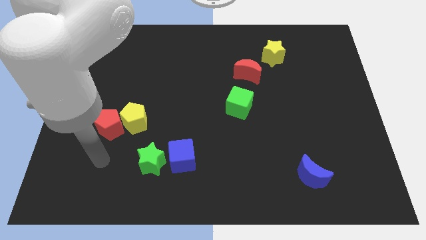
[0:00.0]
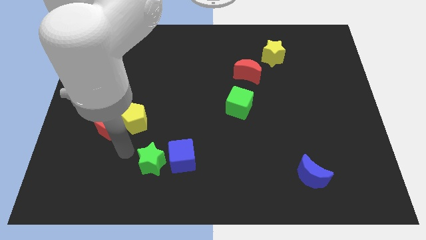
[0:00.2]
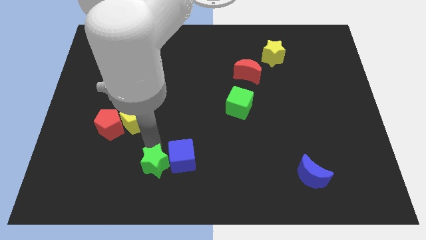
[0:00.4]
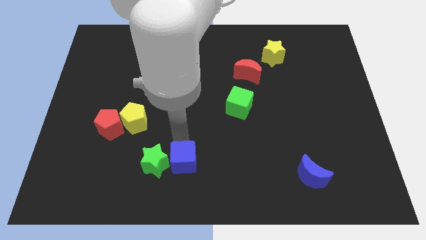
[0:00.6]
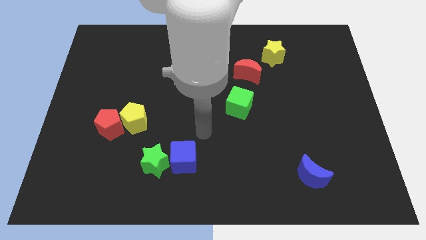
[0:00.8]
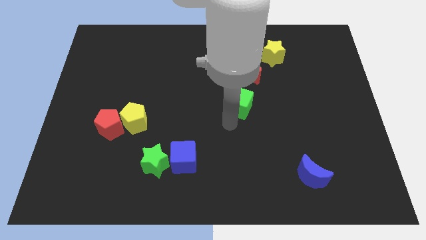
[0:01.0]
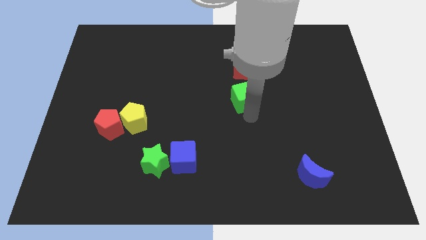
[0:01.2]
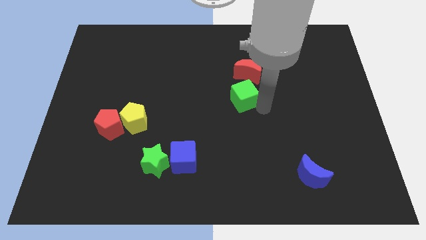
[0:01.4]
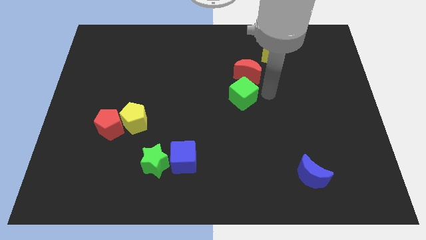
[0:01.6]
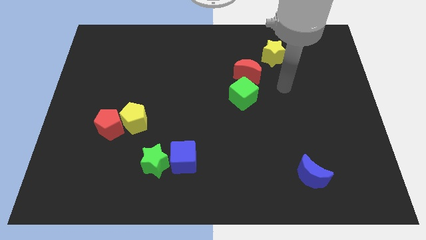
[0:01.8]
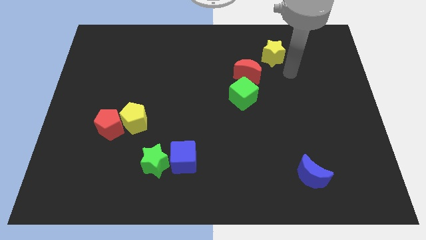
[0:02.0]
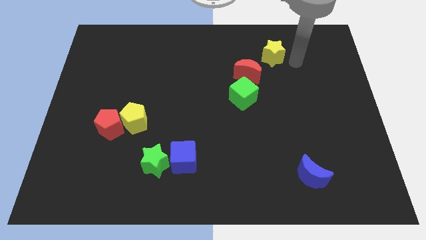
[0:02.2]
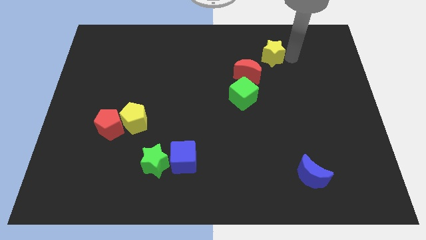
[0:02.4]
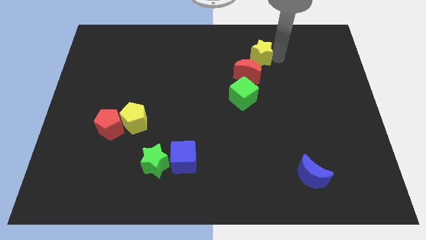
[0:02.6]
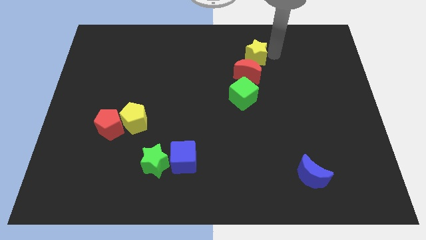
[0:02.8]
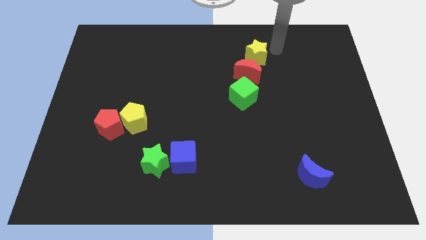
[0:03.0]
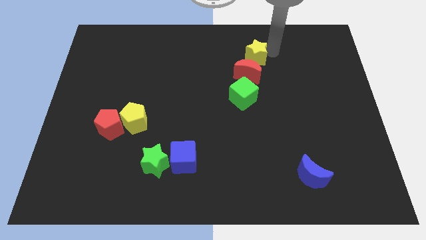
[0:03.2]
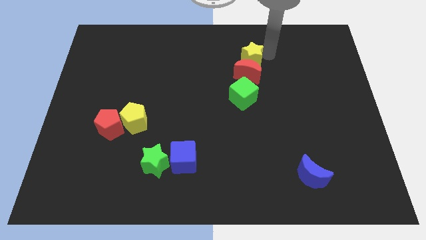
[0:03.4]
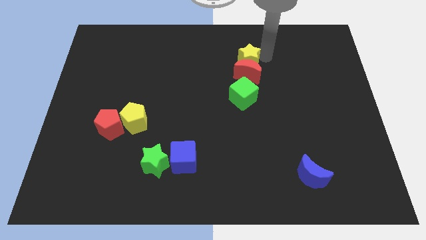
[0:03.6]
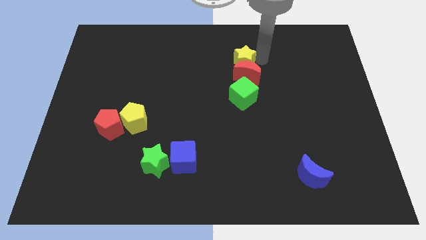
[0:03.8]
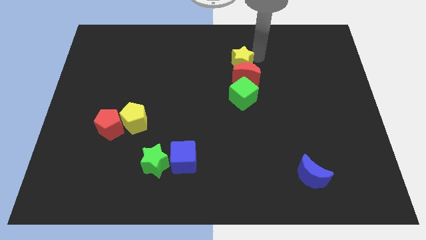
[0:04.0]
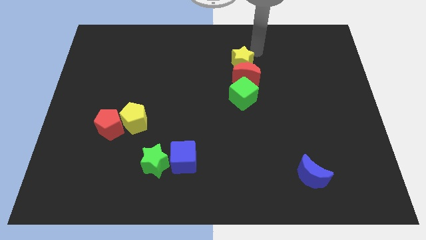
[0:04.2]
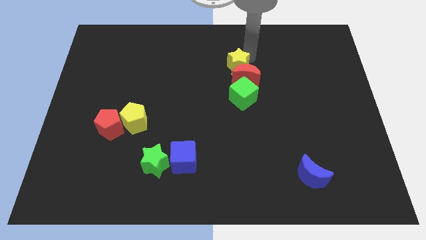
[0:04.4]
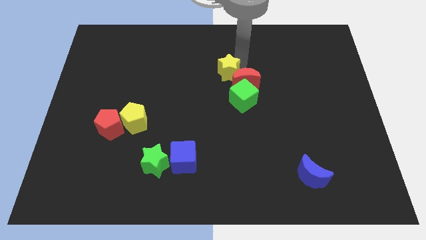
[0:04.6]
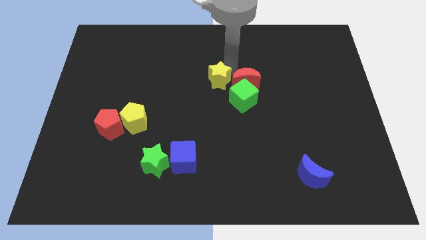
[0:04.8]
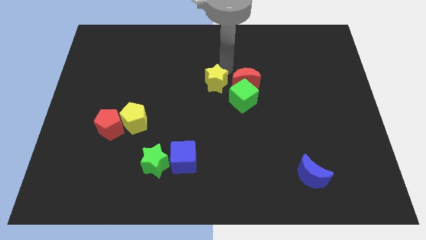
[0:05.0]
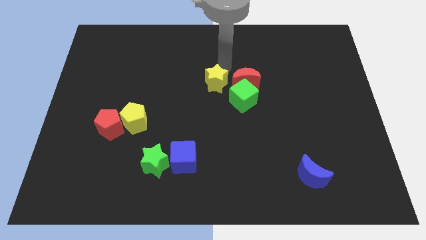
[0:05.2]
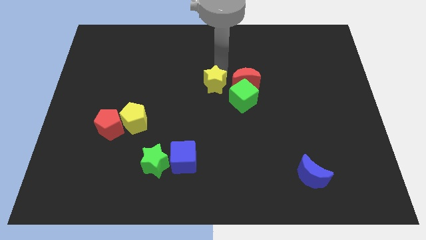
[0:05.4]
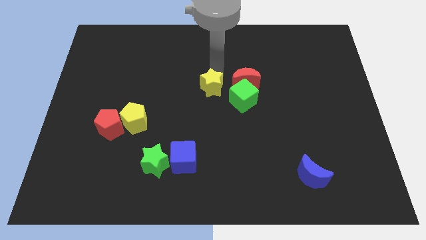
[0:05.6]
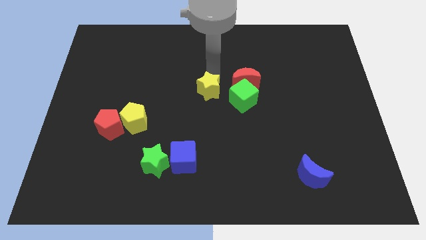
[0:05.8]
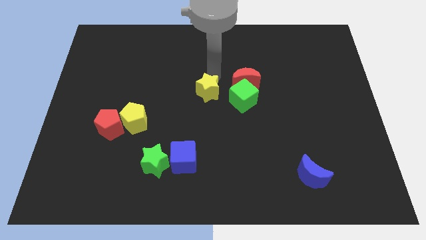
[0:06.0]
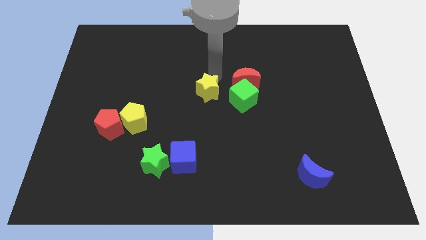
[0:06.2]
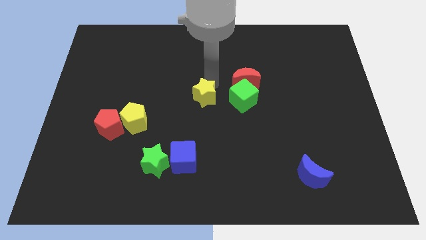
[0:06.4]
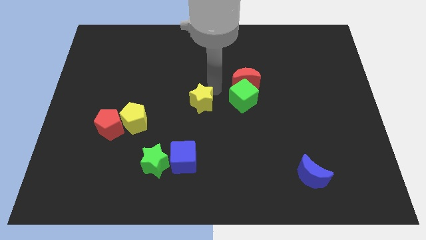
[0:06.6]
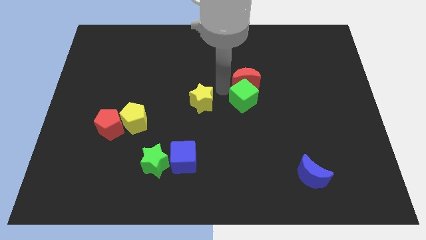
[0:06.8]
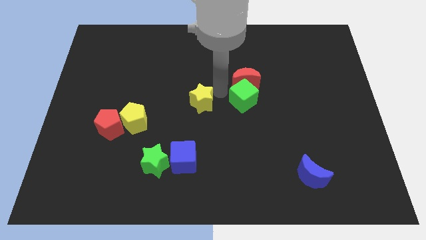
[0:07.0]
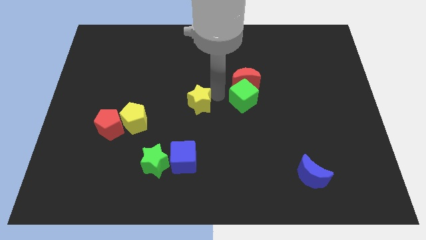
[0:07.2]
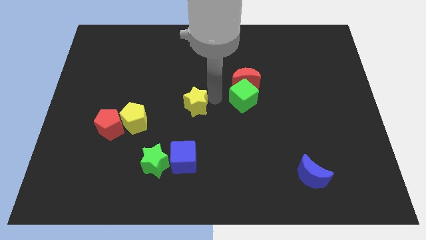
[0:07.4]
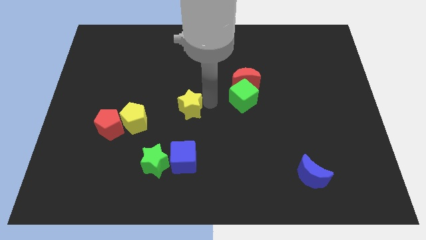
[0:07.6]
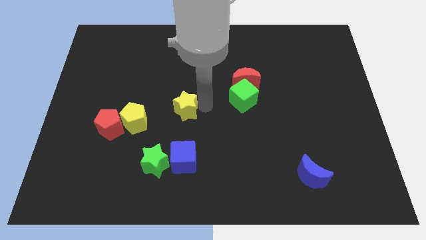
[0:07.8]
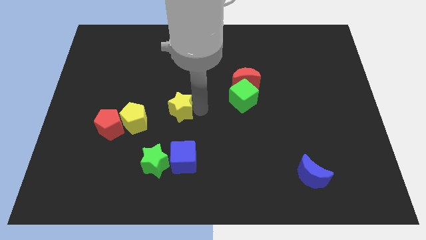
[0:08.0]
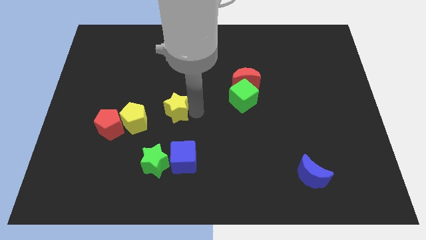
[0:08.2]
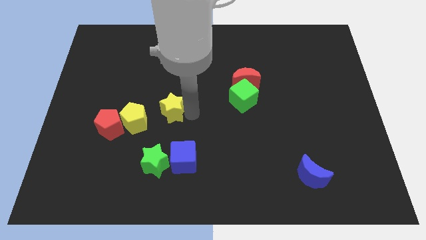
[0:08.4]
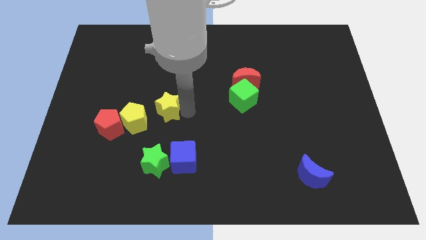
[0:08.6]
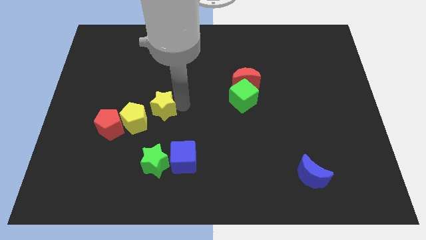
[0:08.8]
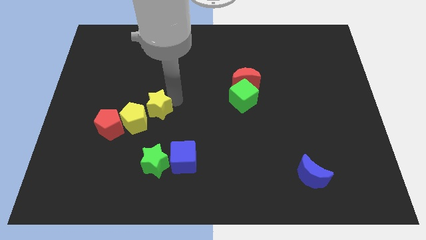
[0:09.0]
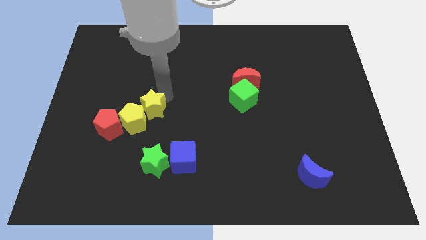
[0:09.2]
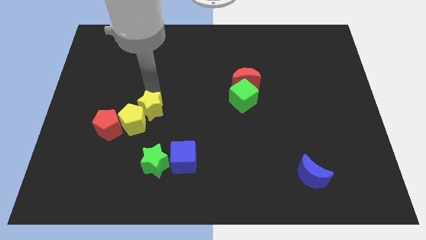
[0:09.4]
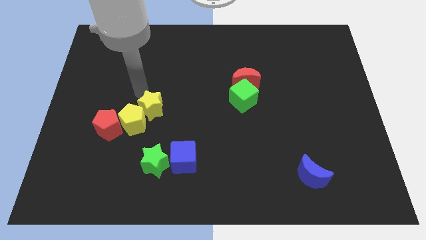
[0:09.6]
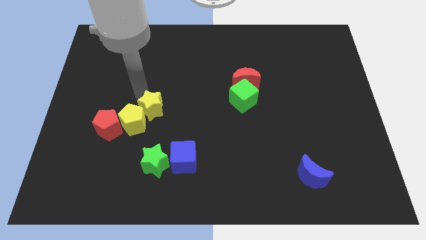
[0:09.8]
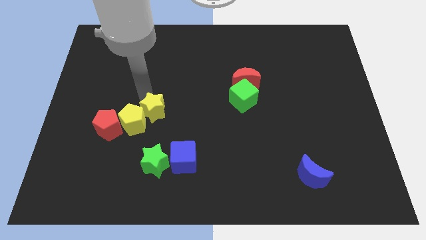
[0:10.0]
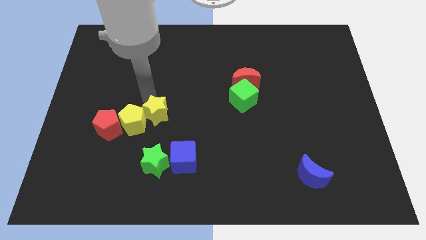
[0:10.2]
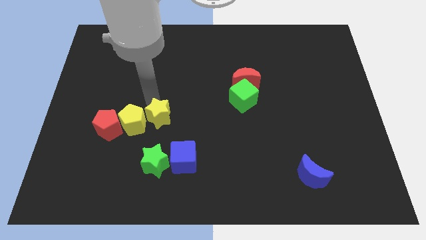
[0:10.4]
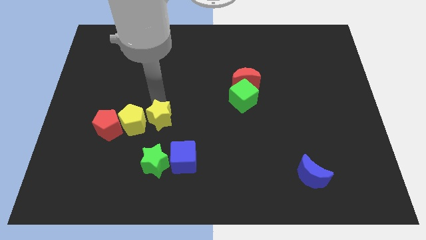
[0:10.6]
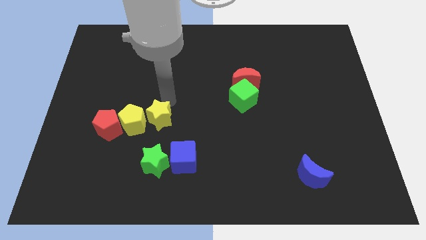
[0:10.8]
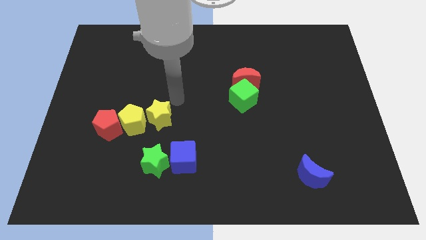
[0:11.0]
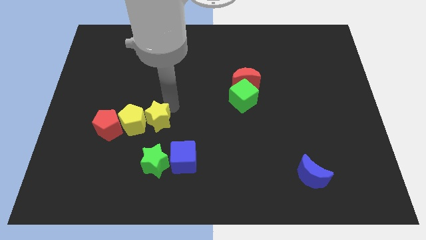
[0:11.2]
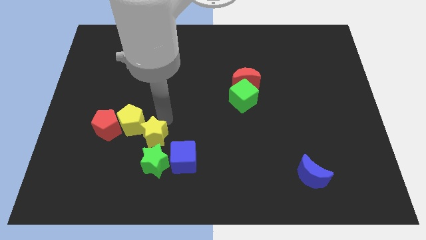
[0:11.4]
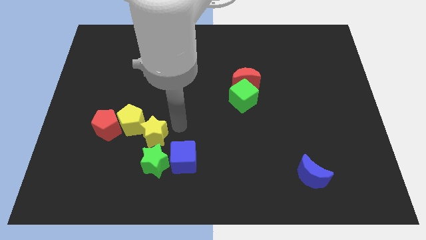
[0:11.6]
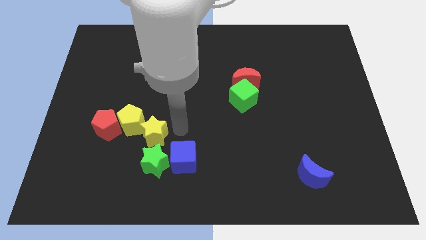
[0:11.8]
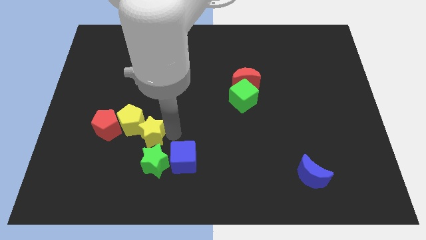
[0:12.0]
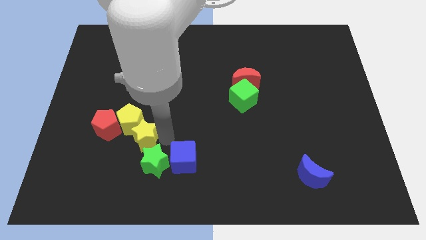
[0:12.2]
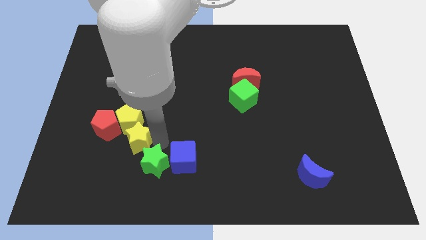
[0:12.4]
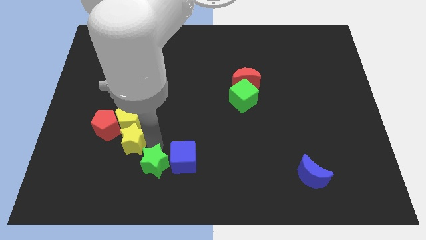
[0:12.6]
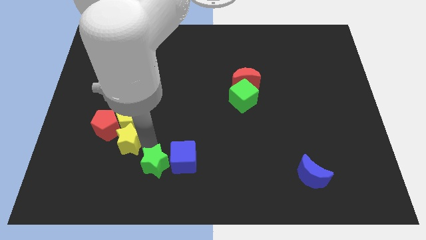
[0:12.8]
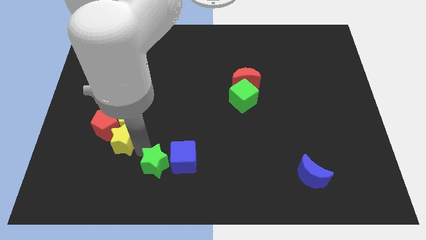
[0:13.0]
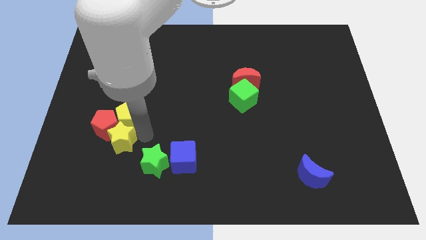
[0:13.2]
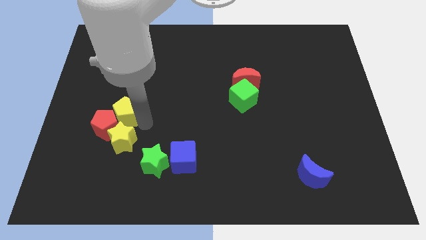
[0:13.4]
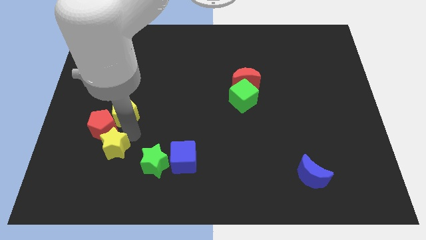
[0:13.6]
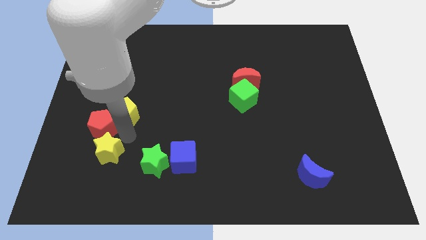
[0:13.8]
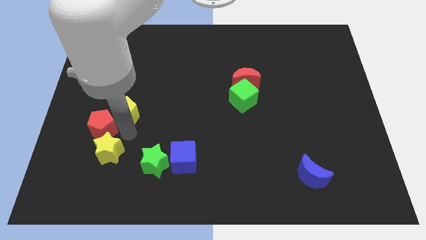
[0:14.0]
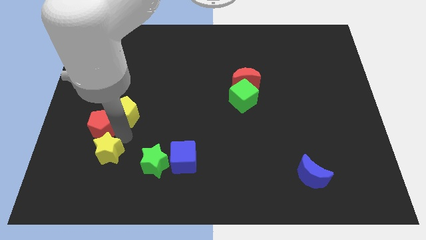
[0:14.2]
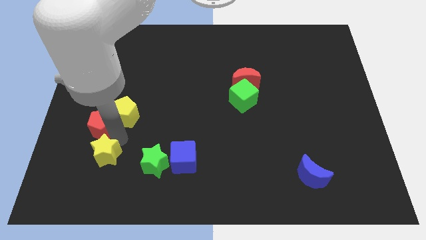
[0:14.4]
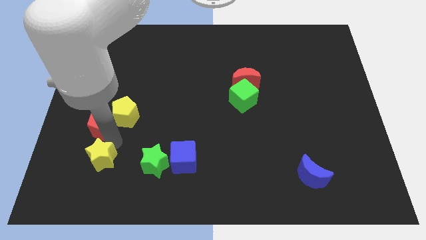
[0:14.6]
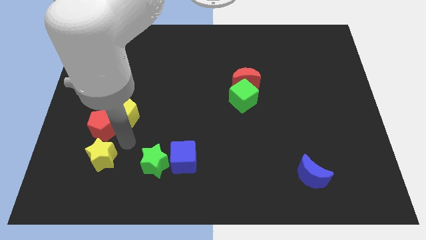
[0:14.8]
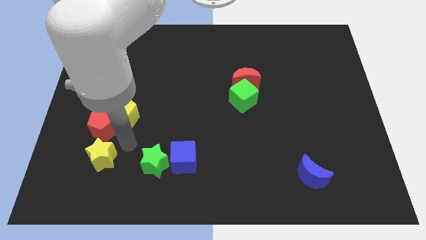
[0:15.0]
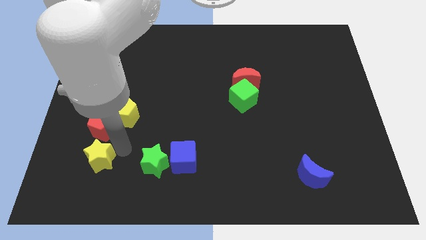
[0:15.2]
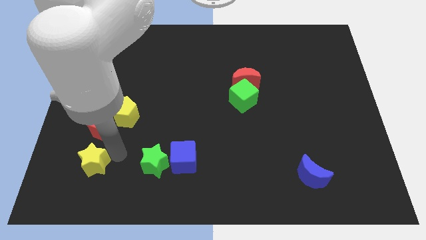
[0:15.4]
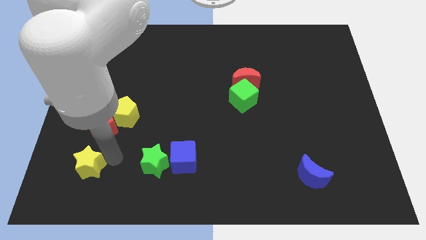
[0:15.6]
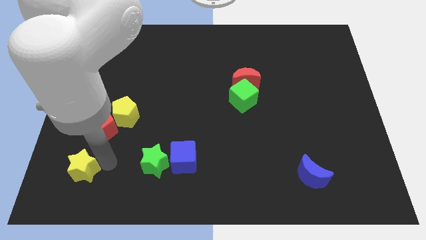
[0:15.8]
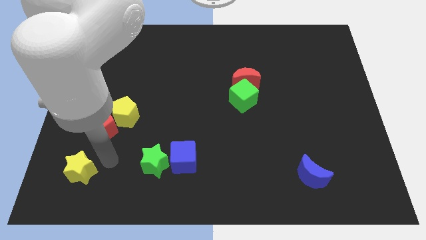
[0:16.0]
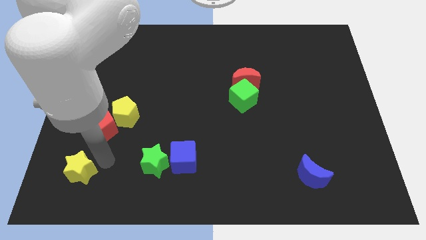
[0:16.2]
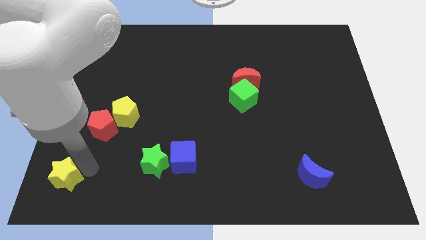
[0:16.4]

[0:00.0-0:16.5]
put the yellow star to the bottom left corner

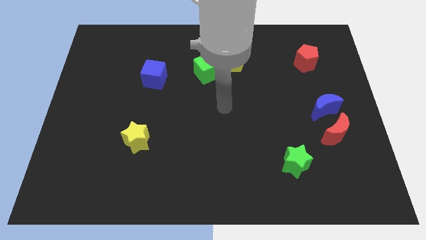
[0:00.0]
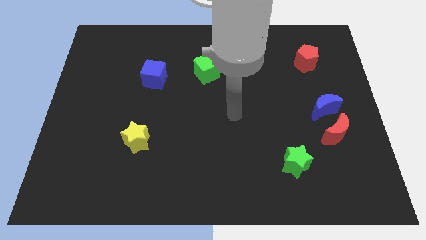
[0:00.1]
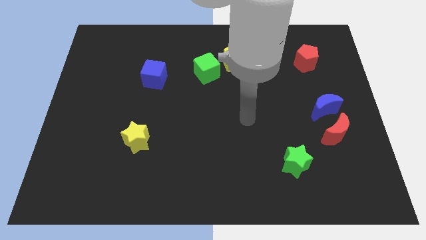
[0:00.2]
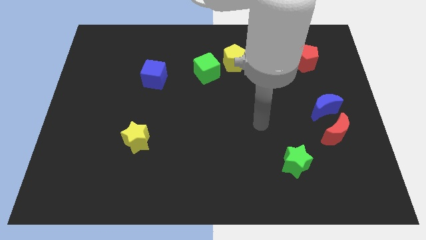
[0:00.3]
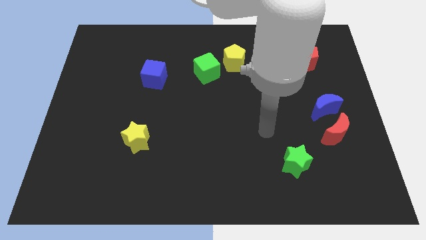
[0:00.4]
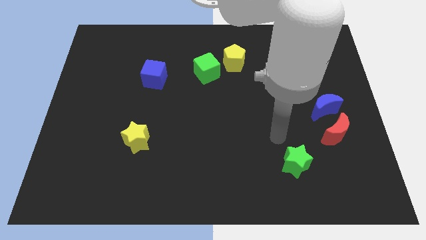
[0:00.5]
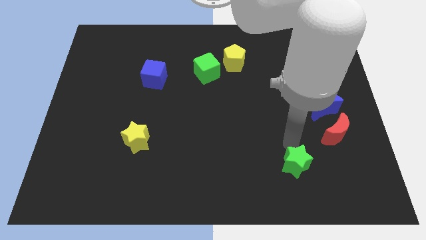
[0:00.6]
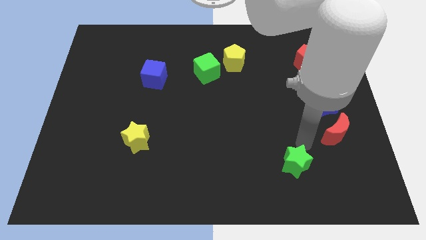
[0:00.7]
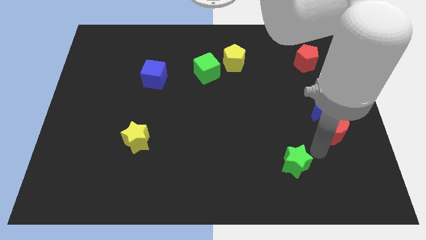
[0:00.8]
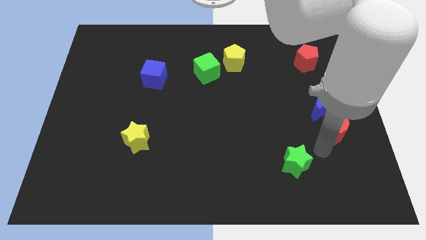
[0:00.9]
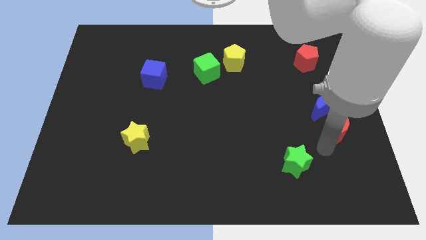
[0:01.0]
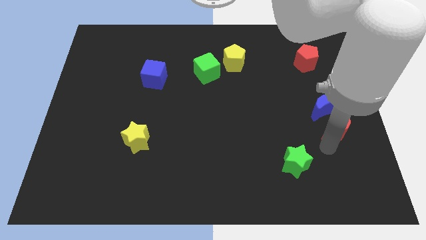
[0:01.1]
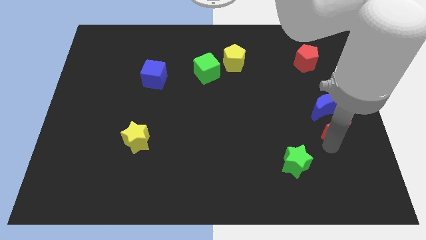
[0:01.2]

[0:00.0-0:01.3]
move the red moon to the right side of the board
